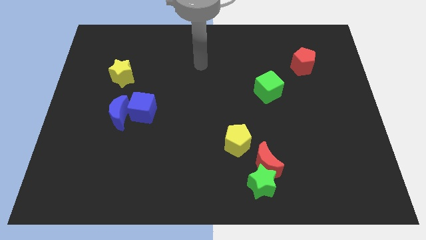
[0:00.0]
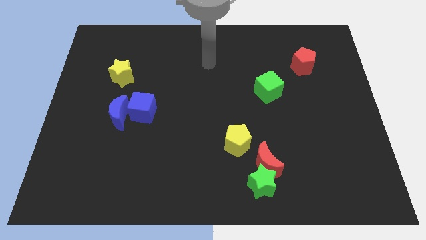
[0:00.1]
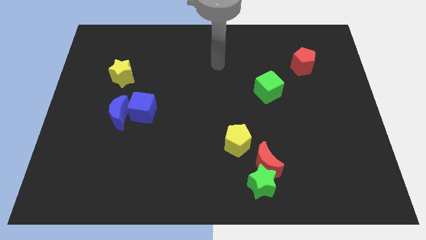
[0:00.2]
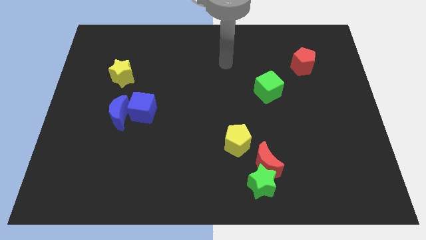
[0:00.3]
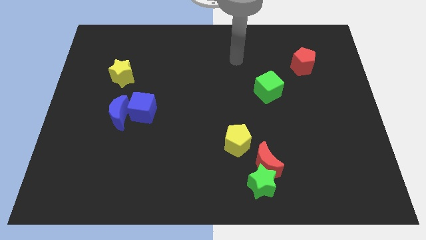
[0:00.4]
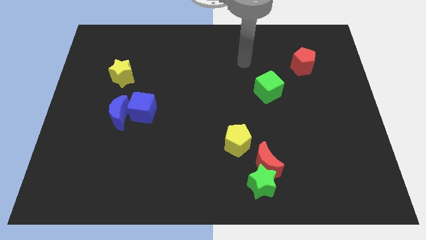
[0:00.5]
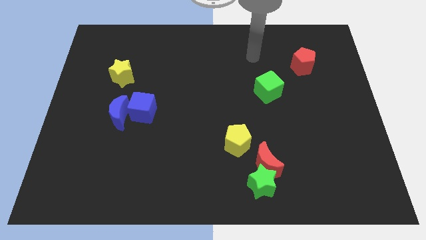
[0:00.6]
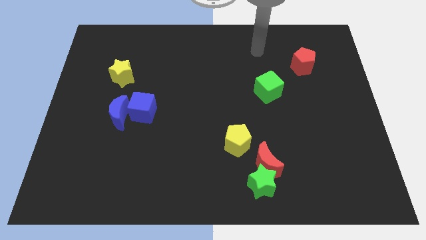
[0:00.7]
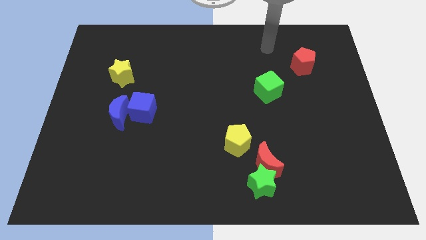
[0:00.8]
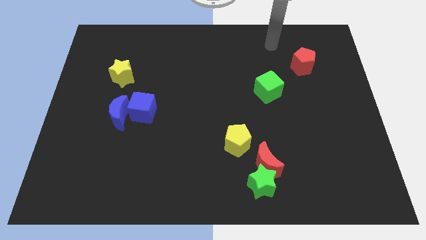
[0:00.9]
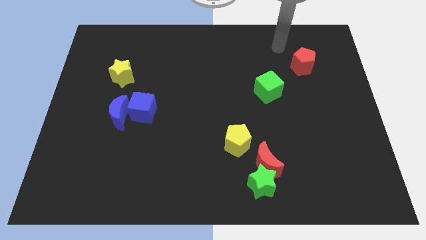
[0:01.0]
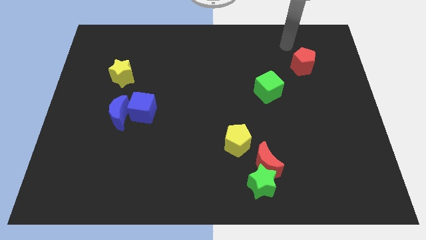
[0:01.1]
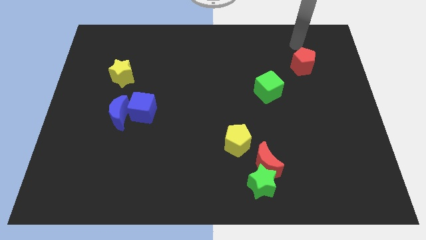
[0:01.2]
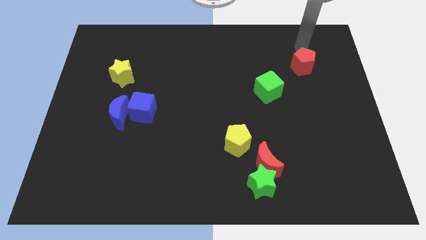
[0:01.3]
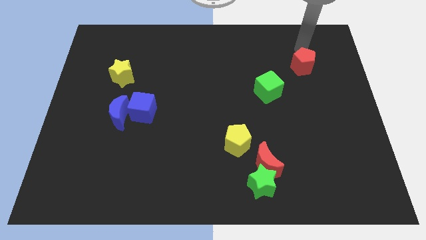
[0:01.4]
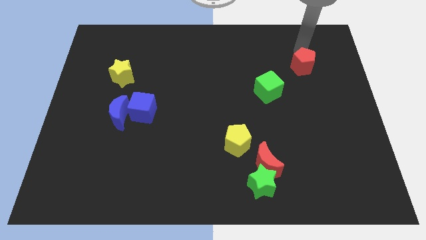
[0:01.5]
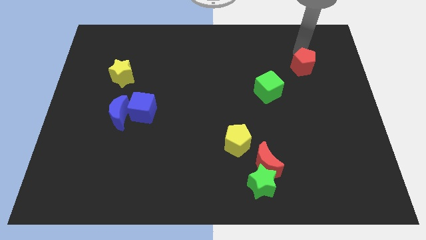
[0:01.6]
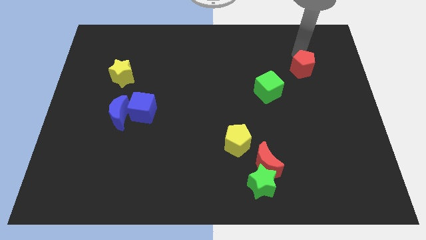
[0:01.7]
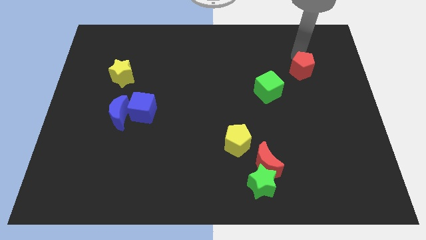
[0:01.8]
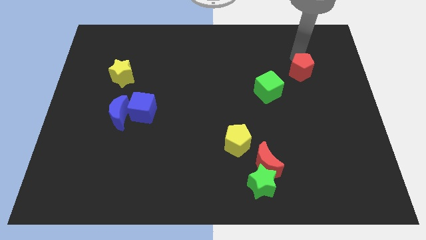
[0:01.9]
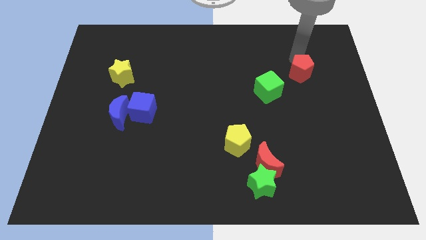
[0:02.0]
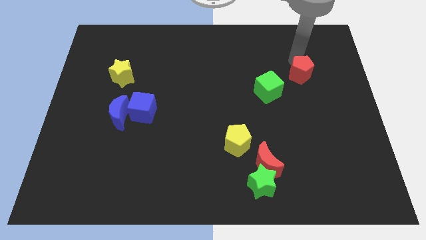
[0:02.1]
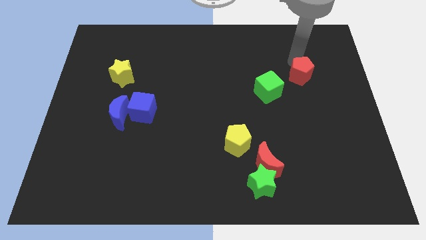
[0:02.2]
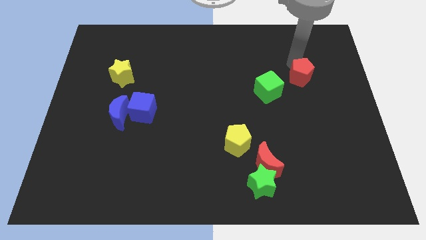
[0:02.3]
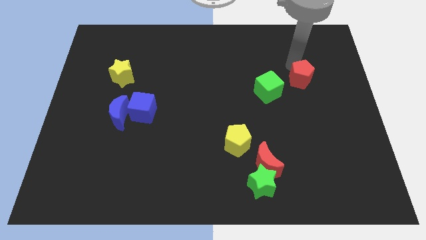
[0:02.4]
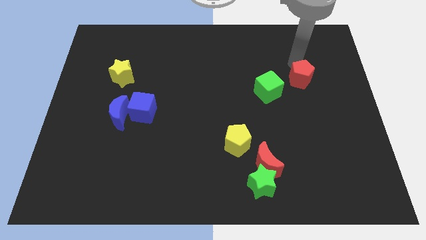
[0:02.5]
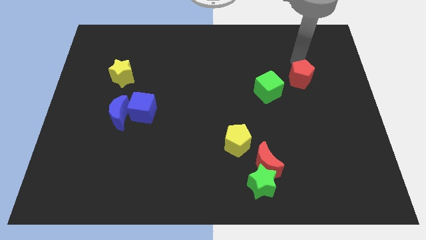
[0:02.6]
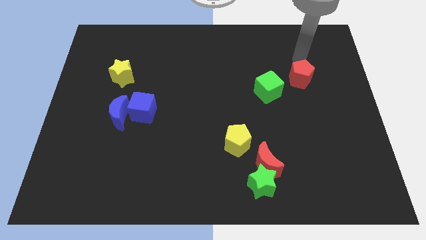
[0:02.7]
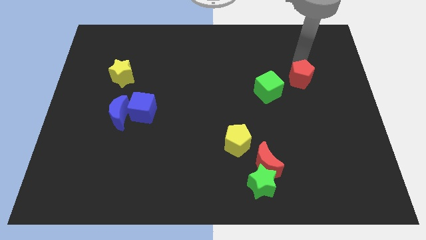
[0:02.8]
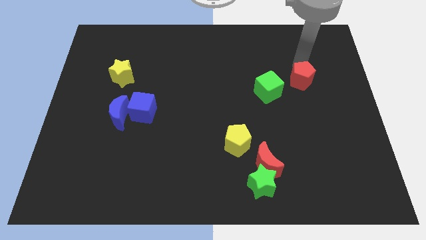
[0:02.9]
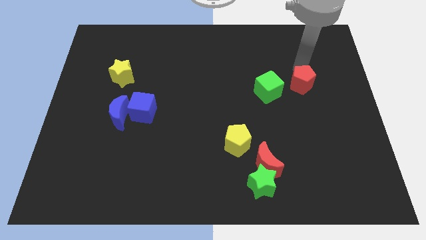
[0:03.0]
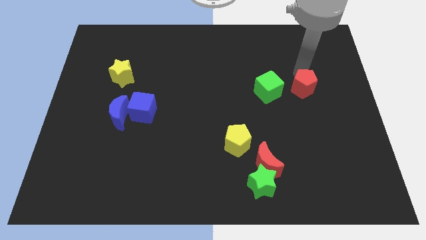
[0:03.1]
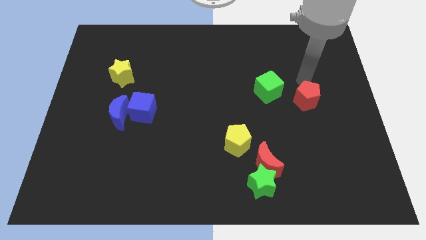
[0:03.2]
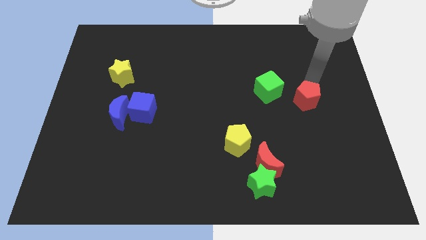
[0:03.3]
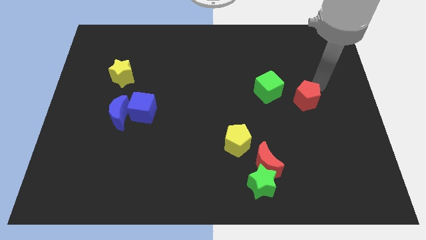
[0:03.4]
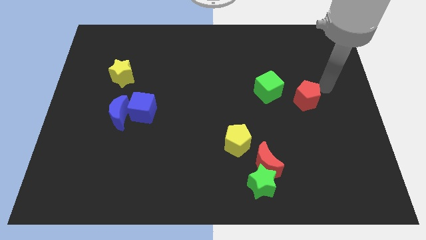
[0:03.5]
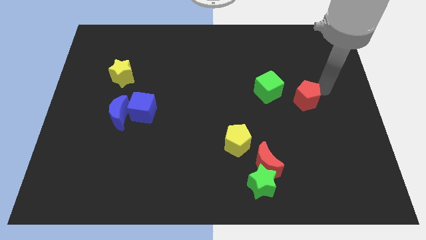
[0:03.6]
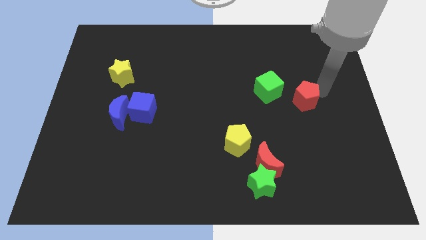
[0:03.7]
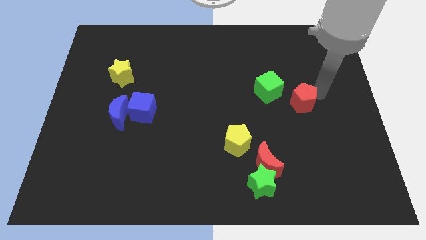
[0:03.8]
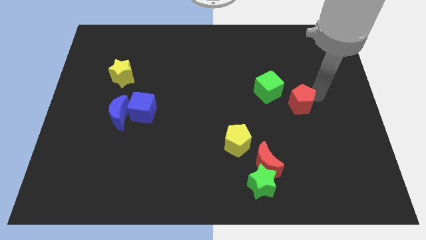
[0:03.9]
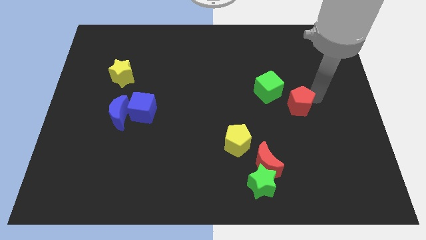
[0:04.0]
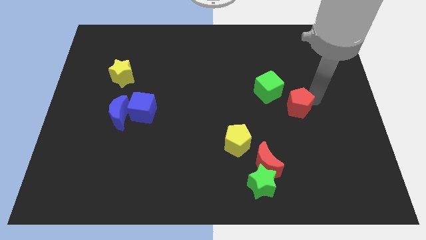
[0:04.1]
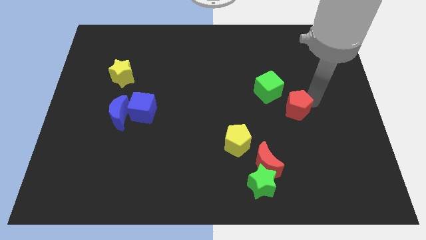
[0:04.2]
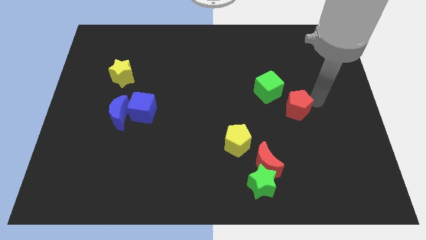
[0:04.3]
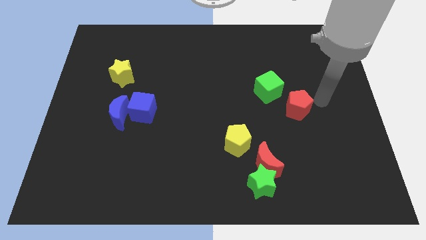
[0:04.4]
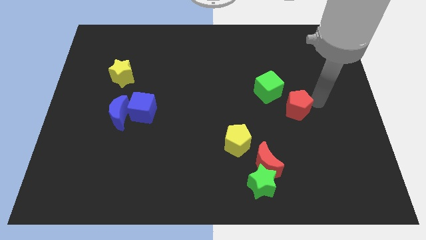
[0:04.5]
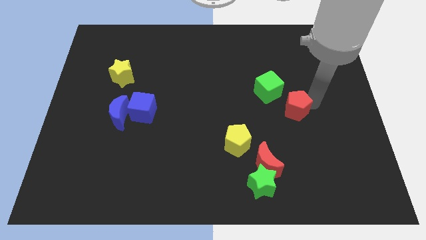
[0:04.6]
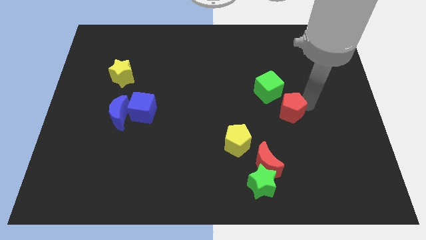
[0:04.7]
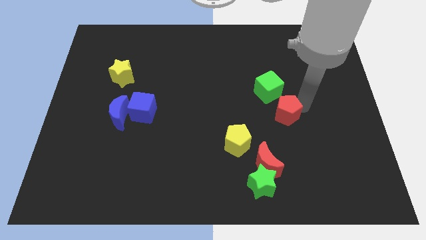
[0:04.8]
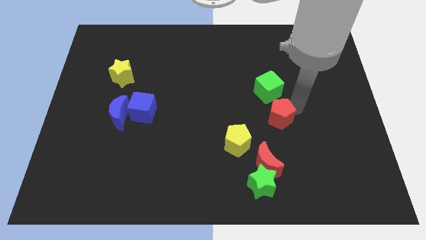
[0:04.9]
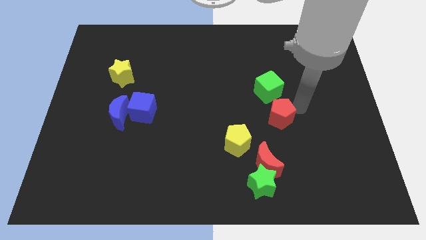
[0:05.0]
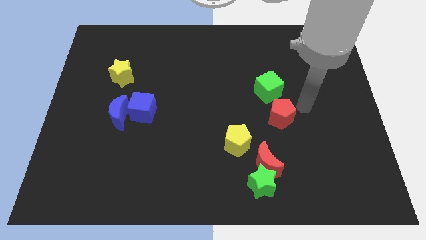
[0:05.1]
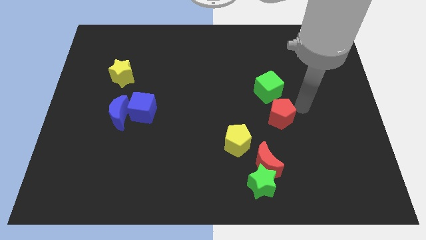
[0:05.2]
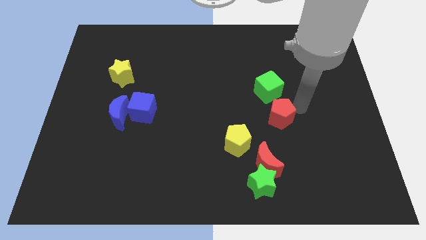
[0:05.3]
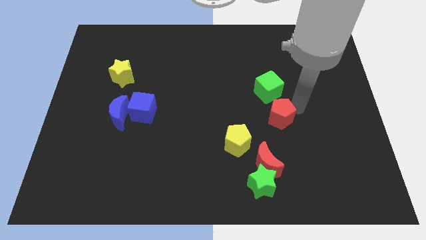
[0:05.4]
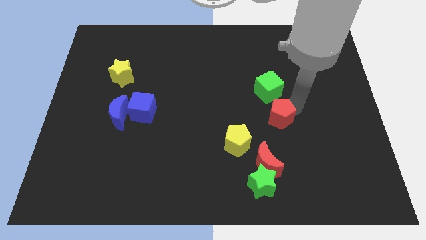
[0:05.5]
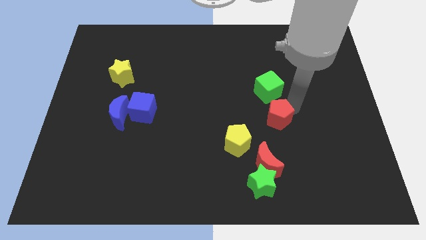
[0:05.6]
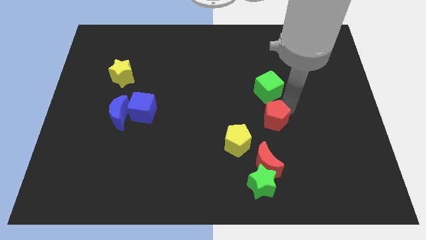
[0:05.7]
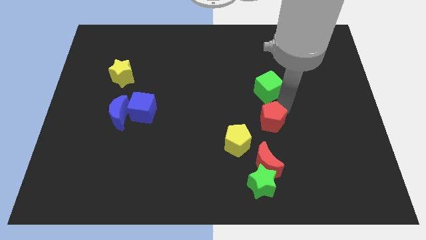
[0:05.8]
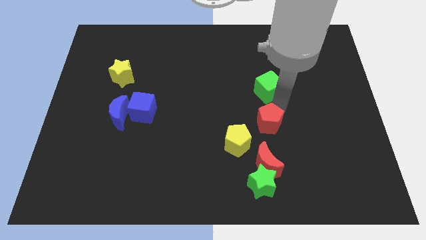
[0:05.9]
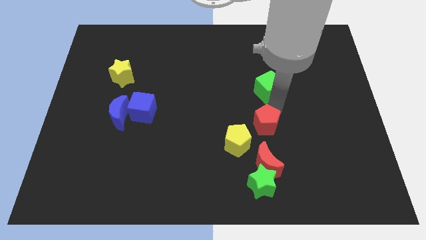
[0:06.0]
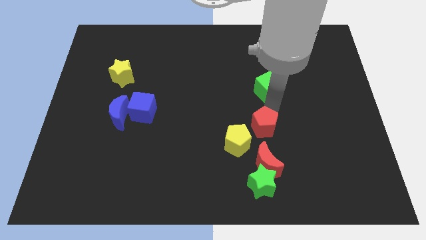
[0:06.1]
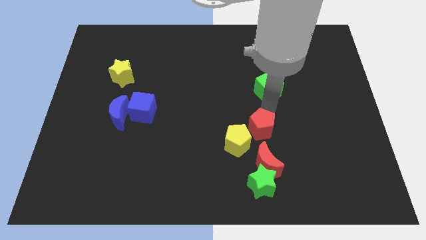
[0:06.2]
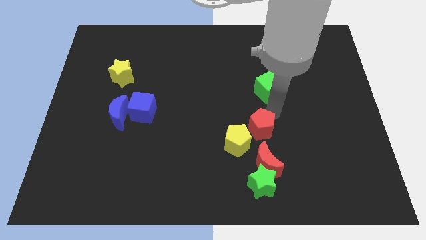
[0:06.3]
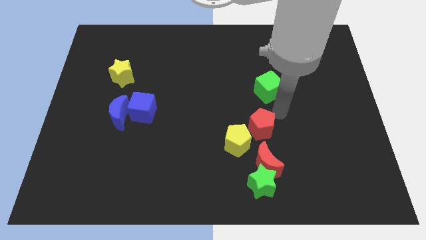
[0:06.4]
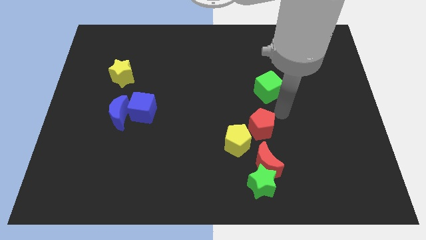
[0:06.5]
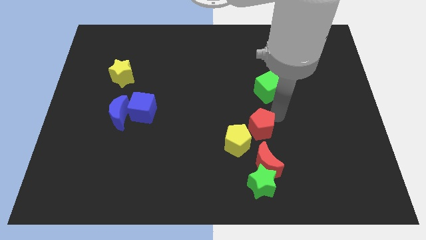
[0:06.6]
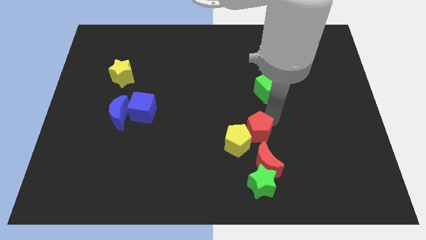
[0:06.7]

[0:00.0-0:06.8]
slide the red pentagon towards the yellow pentagon

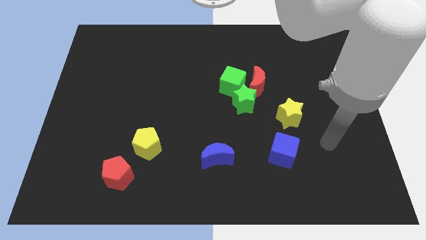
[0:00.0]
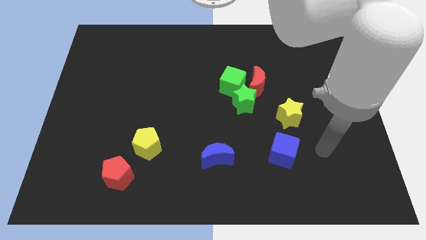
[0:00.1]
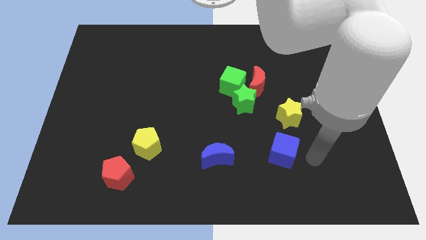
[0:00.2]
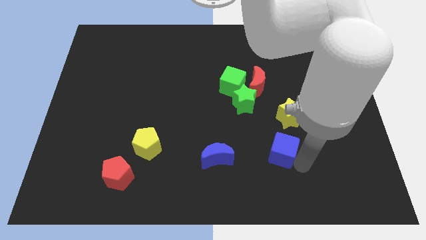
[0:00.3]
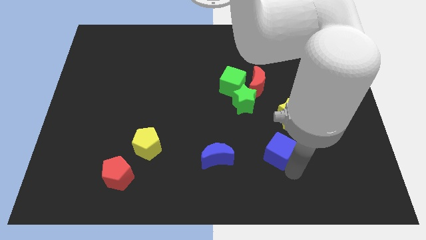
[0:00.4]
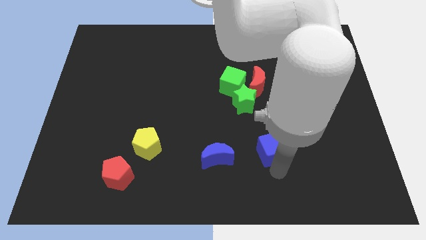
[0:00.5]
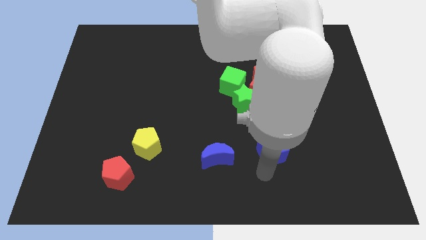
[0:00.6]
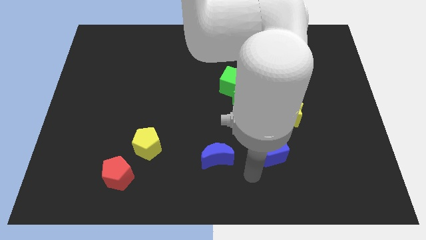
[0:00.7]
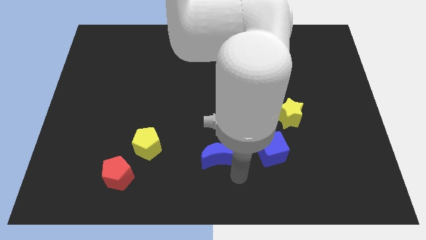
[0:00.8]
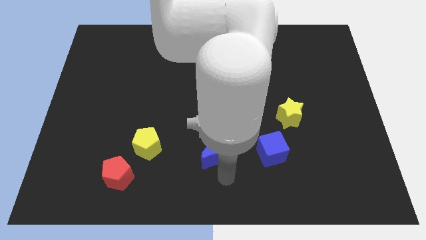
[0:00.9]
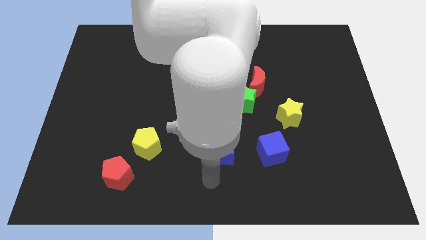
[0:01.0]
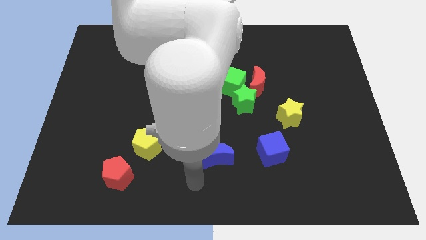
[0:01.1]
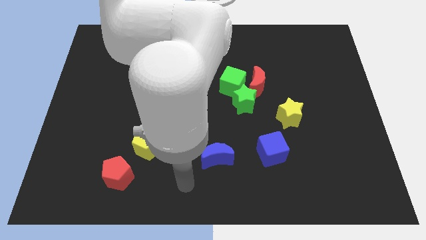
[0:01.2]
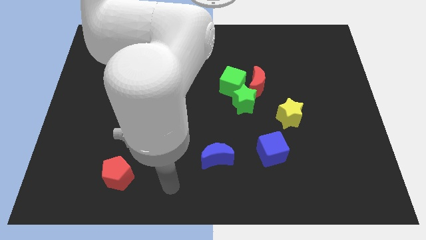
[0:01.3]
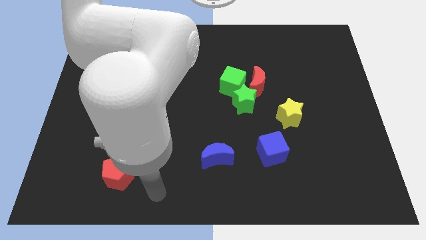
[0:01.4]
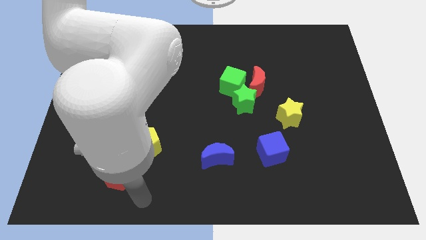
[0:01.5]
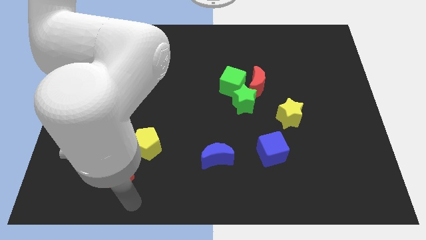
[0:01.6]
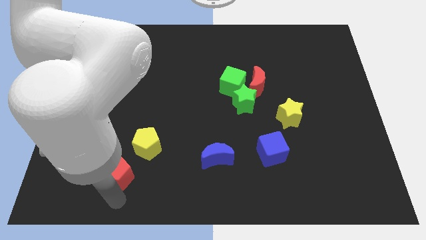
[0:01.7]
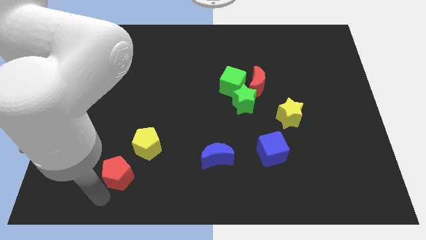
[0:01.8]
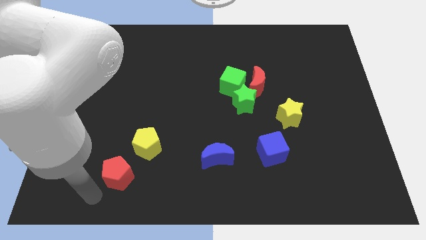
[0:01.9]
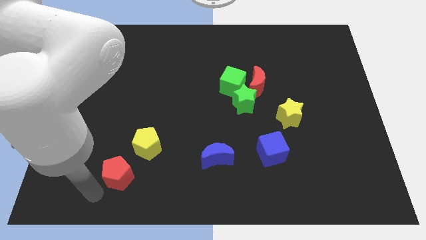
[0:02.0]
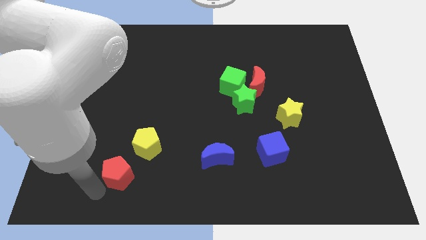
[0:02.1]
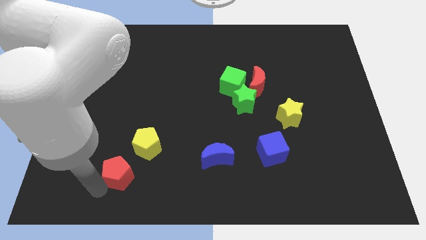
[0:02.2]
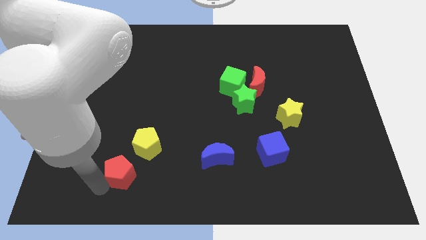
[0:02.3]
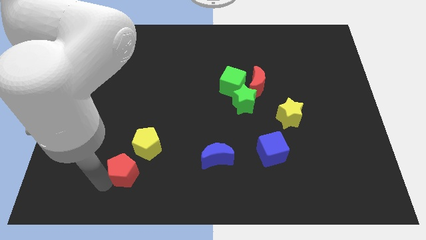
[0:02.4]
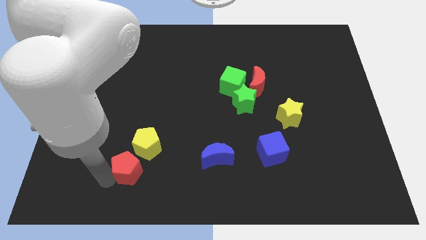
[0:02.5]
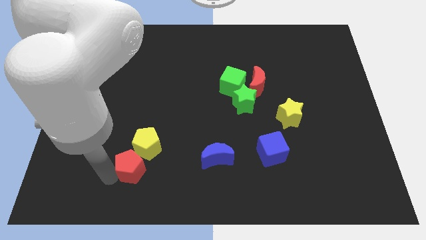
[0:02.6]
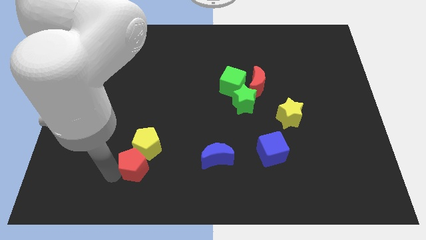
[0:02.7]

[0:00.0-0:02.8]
push the red pentagon close to the yellow pentagon
